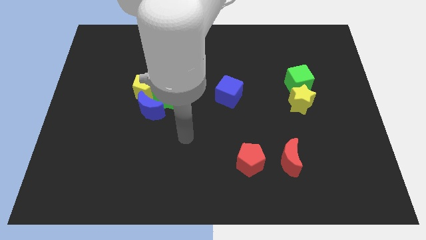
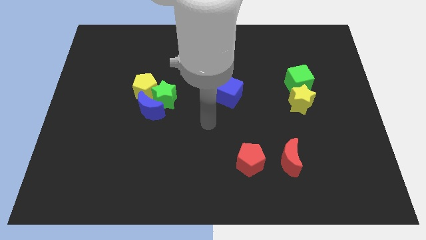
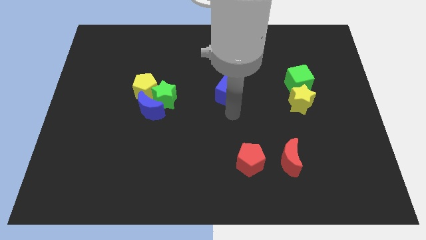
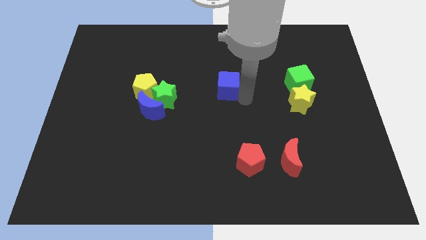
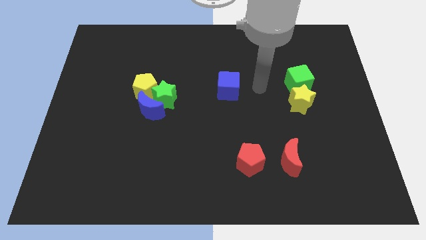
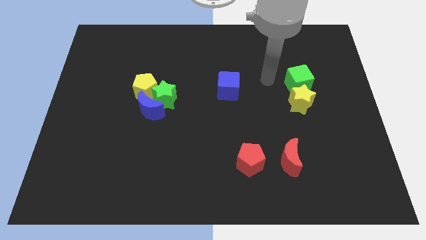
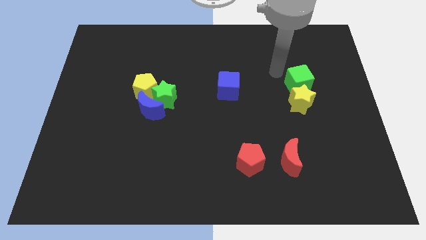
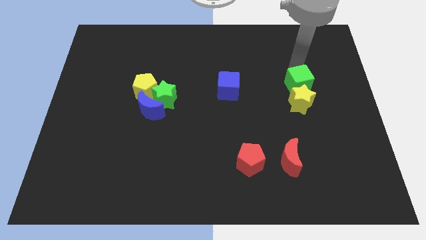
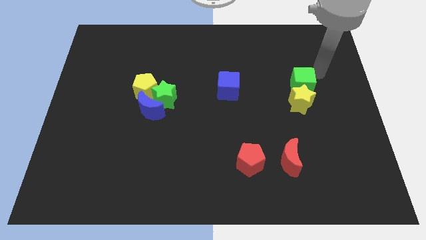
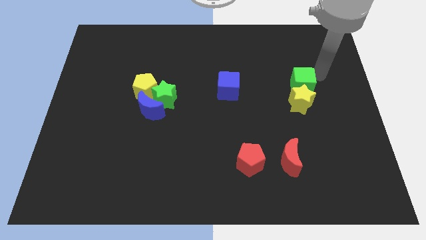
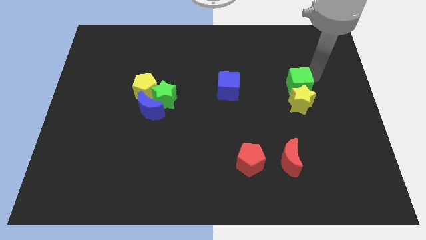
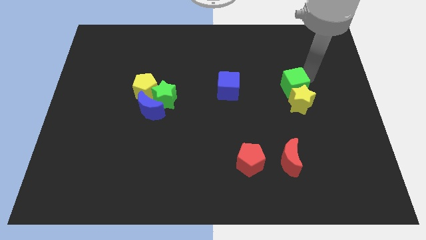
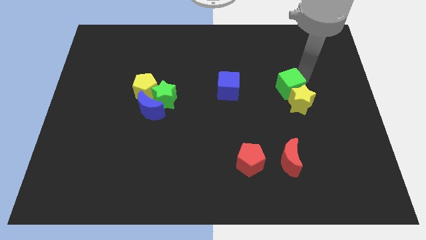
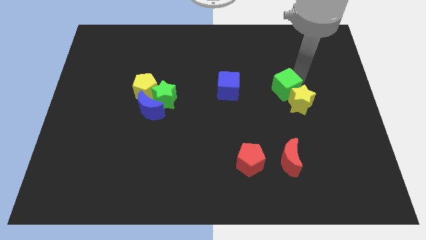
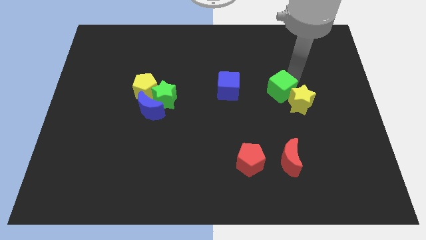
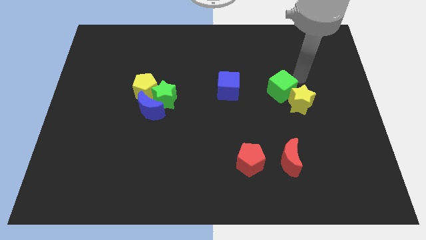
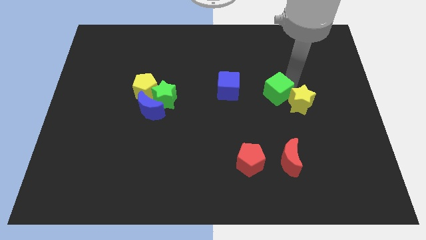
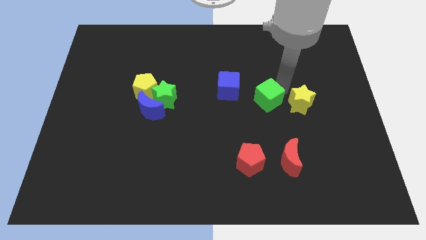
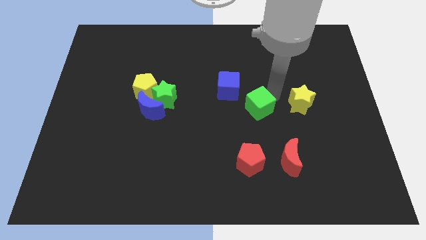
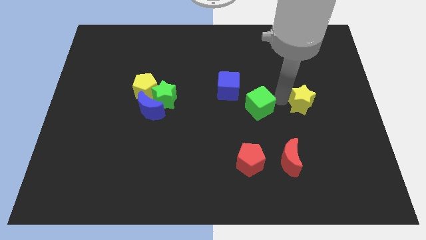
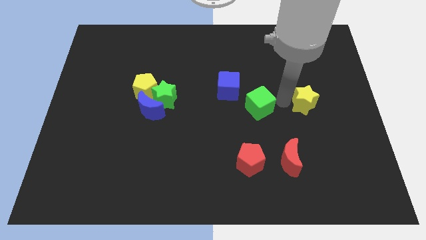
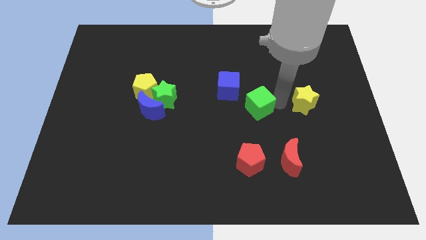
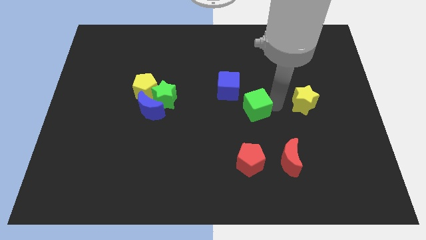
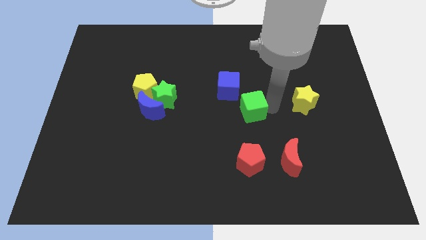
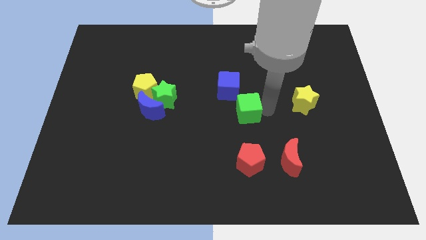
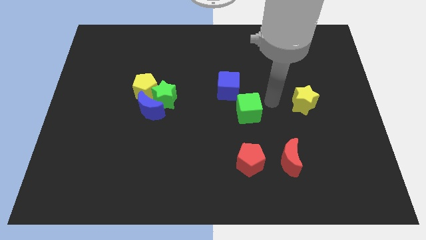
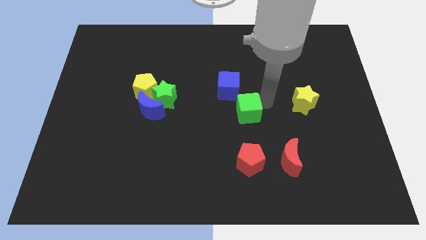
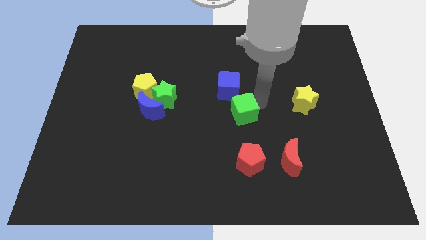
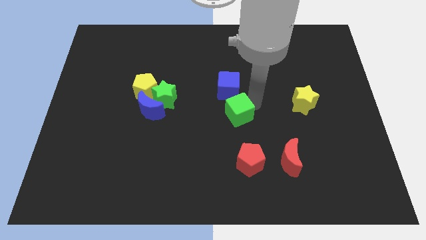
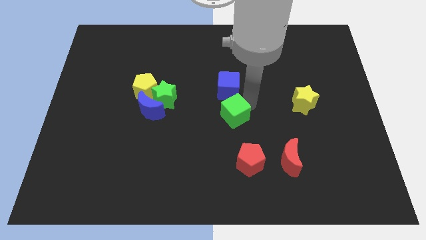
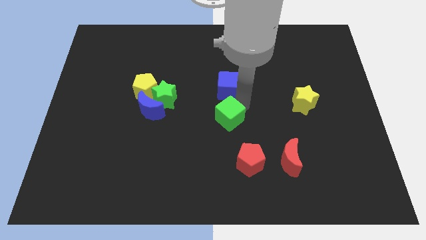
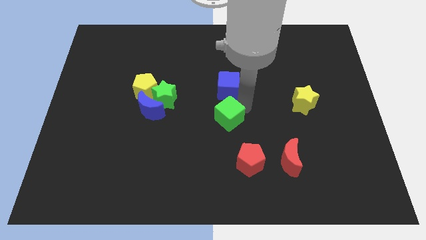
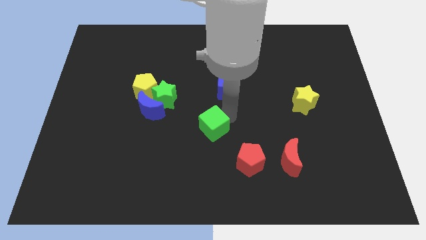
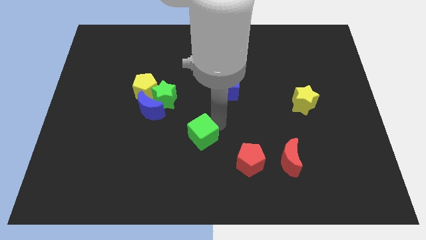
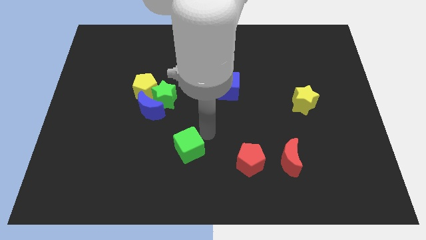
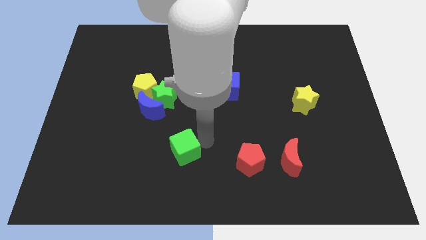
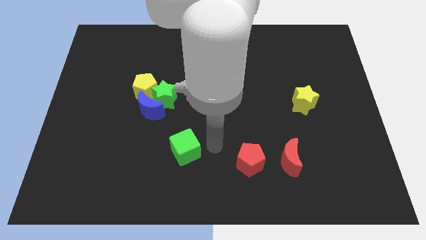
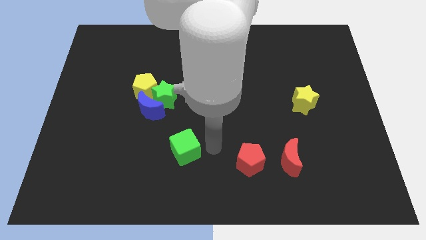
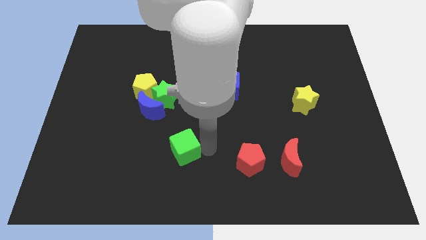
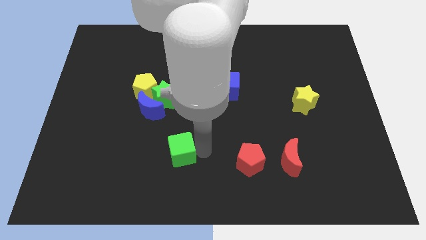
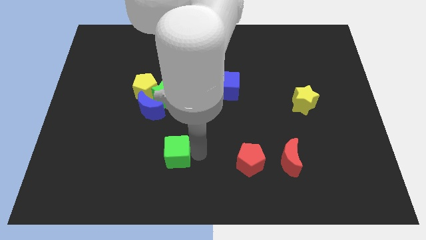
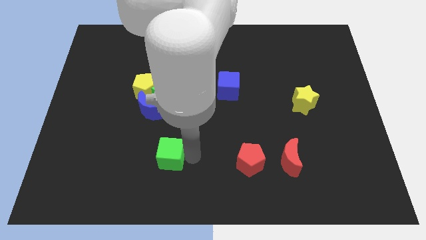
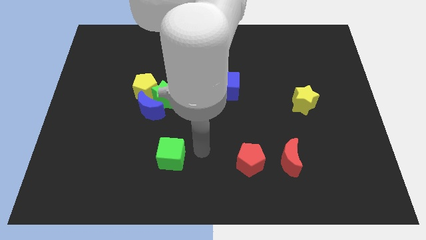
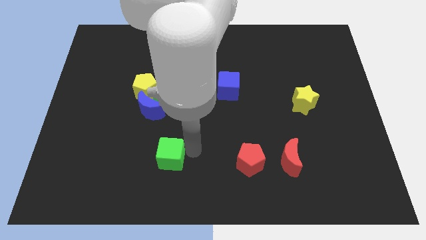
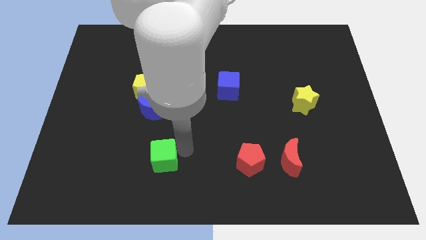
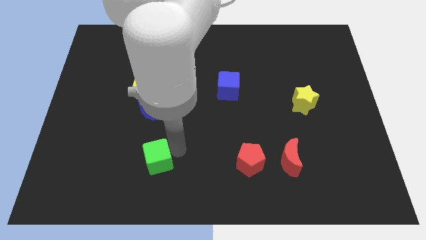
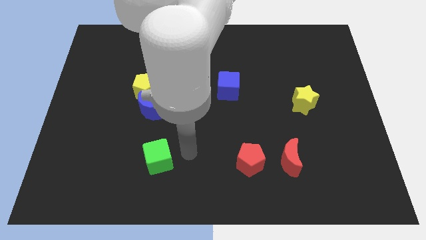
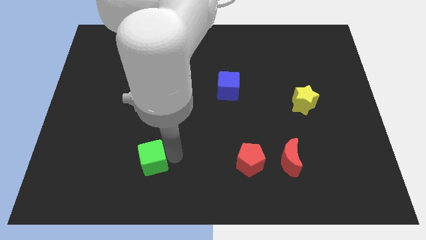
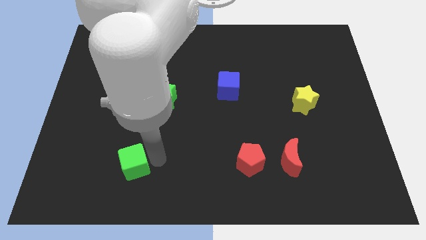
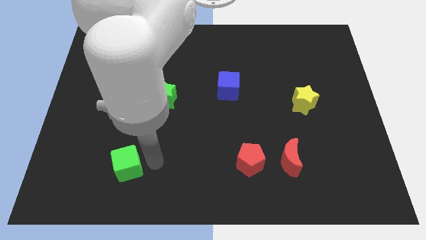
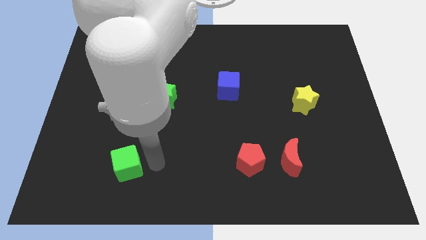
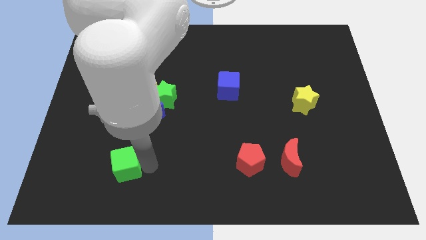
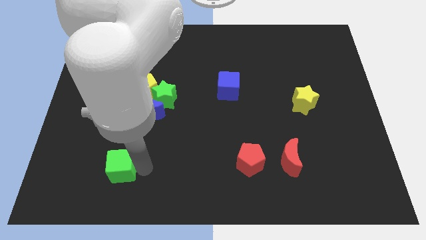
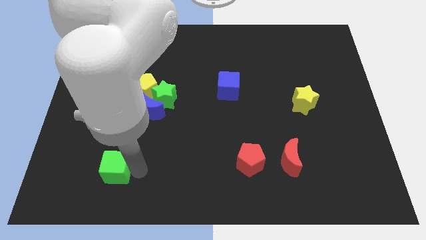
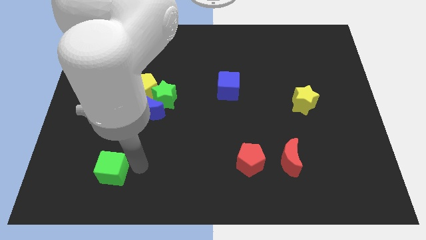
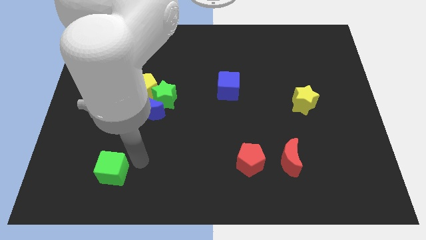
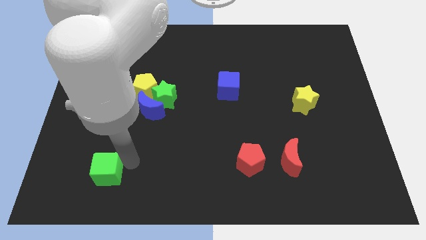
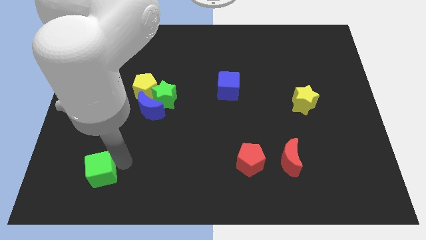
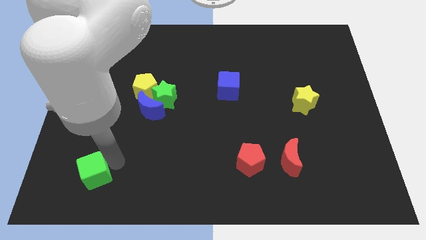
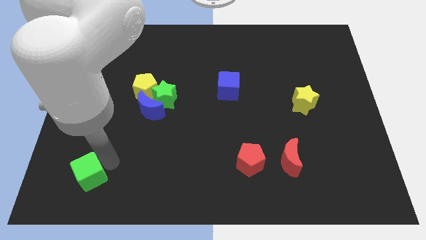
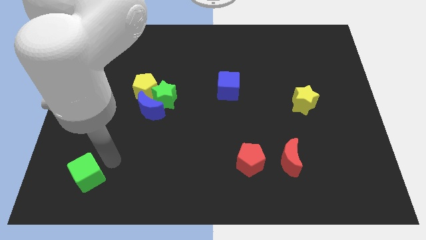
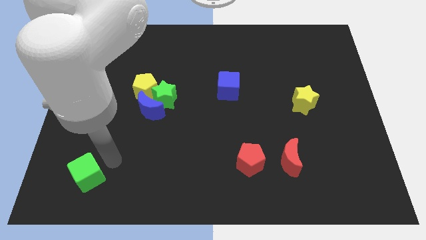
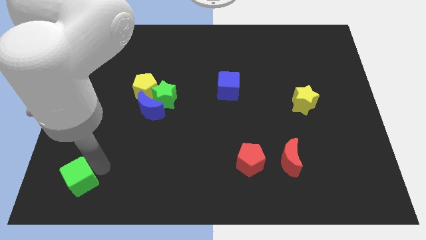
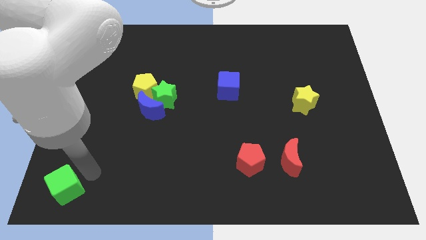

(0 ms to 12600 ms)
slide the green cube to the bottom left corner
